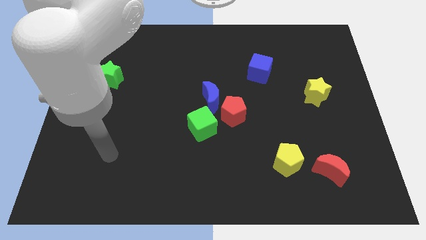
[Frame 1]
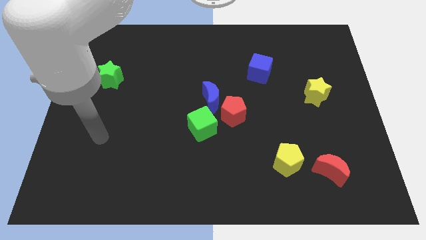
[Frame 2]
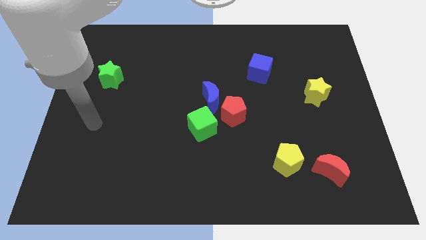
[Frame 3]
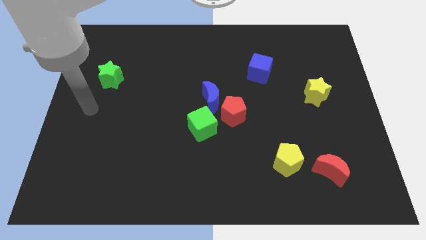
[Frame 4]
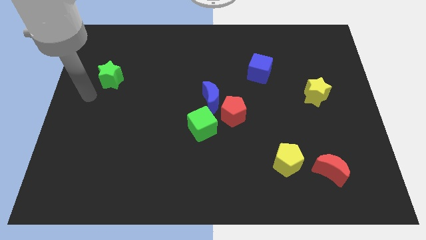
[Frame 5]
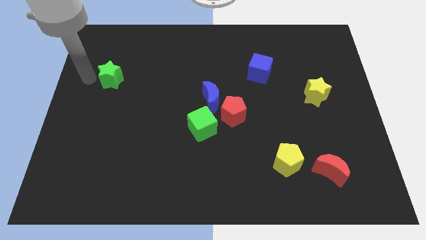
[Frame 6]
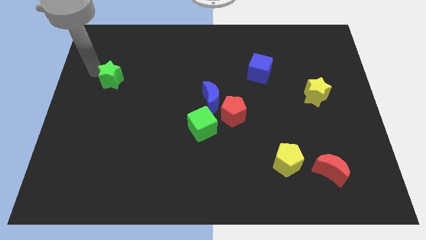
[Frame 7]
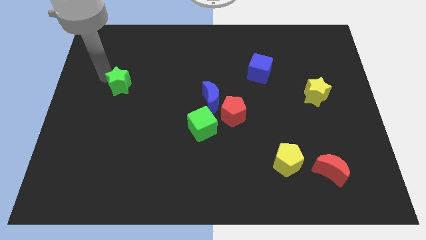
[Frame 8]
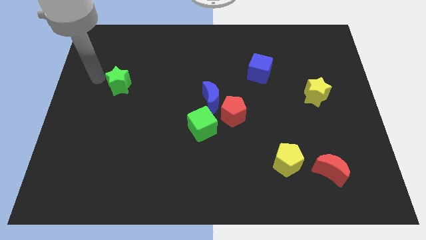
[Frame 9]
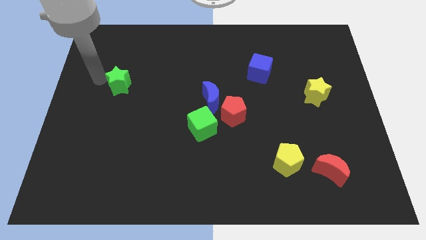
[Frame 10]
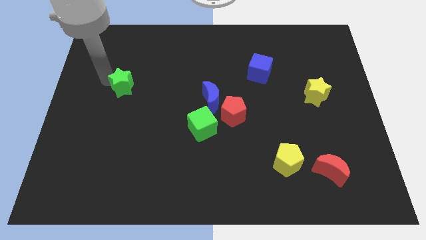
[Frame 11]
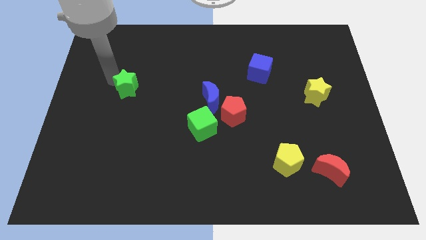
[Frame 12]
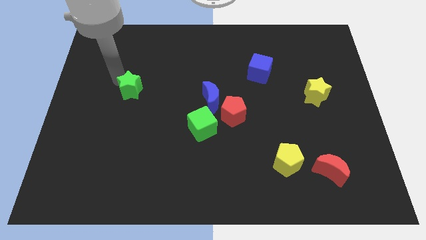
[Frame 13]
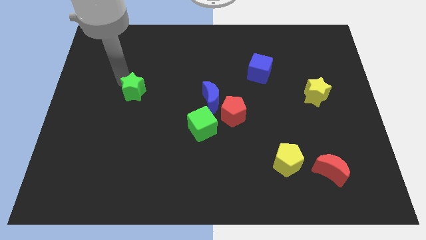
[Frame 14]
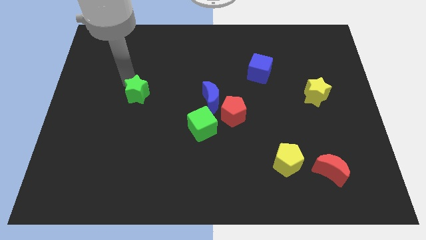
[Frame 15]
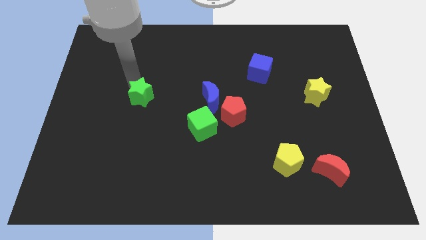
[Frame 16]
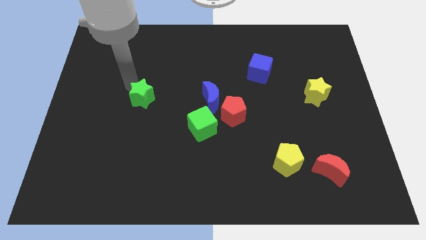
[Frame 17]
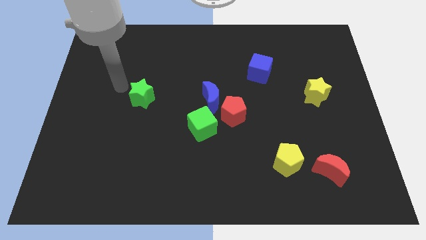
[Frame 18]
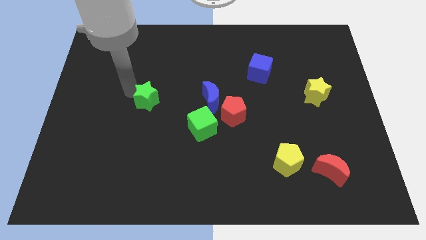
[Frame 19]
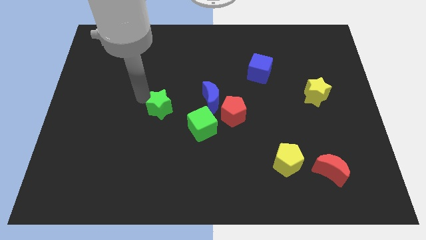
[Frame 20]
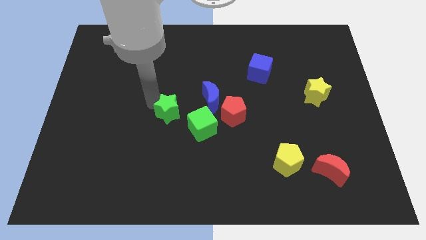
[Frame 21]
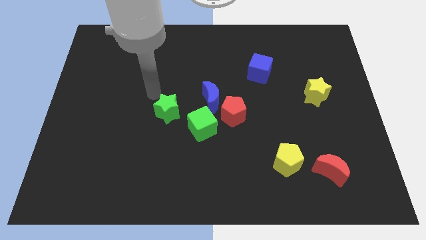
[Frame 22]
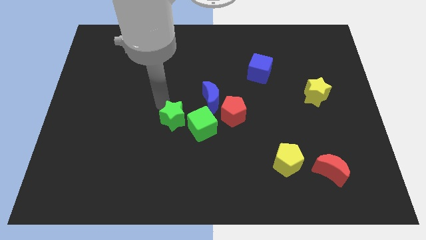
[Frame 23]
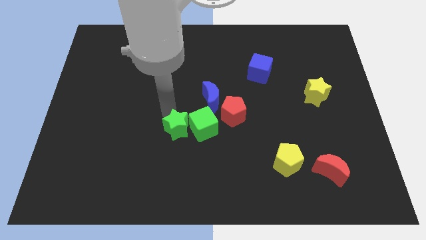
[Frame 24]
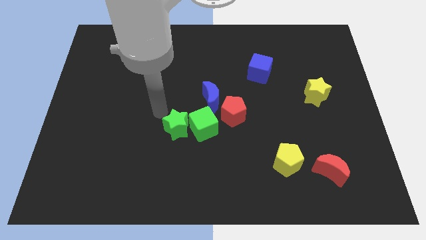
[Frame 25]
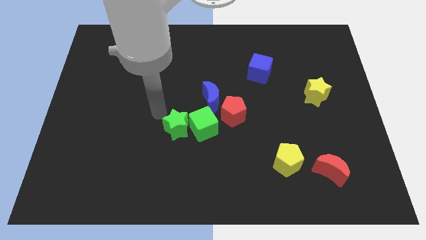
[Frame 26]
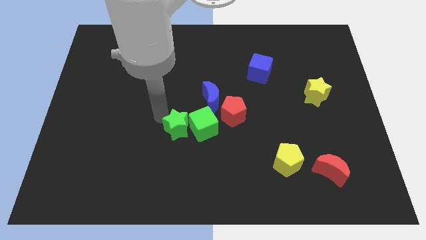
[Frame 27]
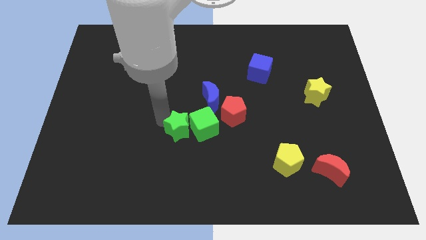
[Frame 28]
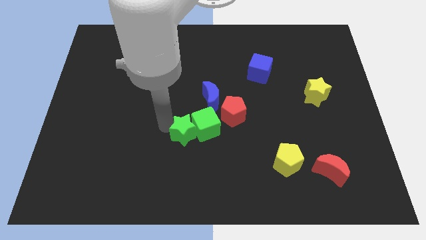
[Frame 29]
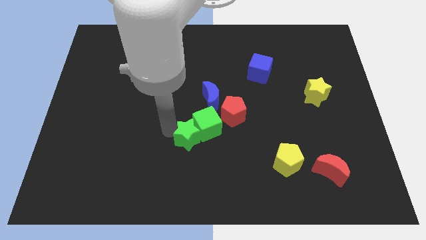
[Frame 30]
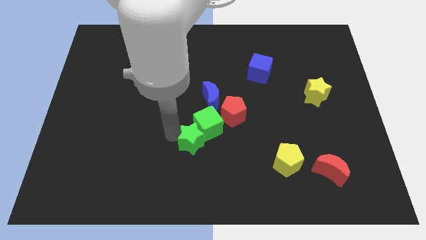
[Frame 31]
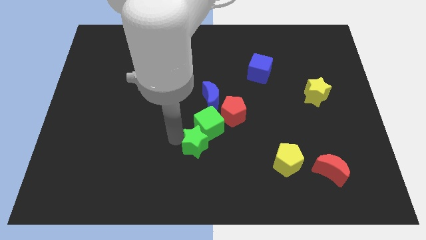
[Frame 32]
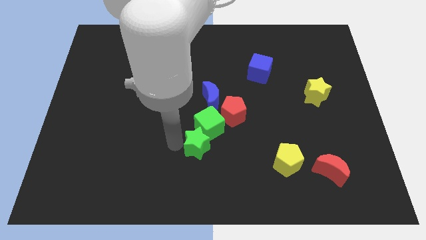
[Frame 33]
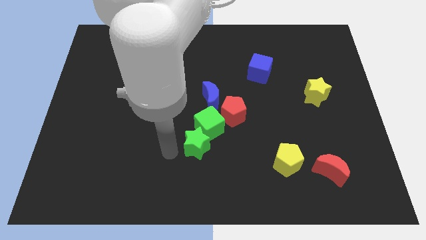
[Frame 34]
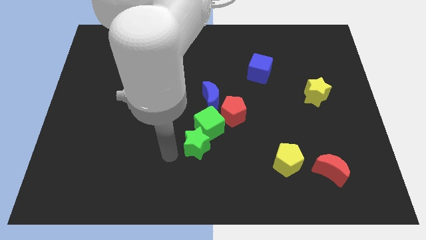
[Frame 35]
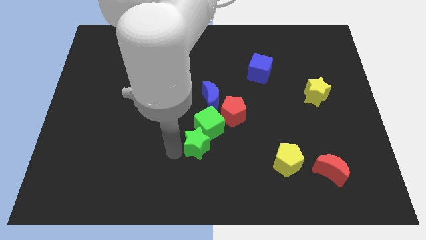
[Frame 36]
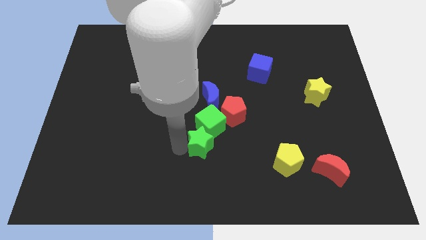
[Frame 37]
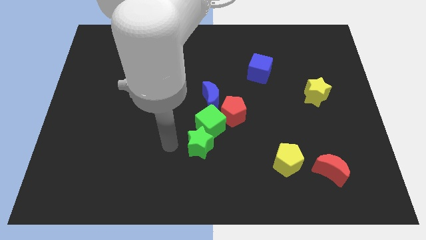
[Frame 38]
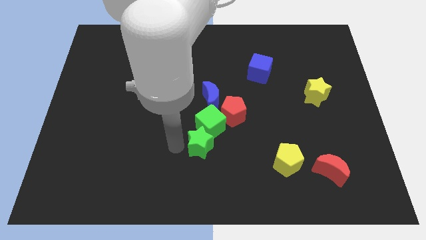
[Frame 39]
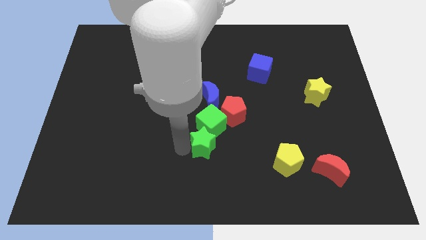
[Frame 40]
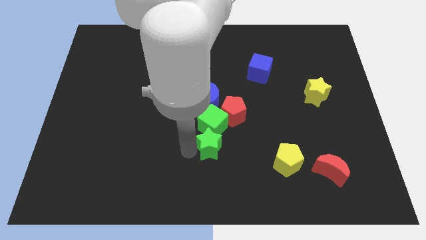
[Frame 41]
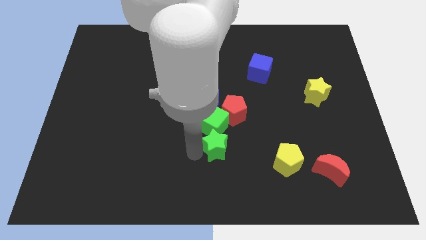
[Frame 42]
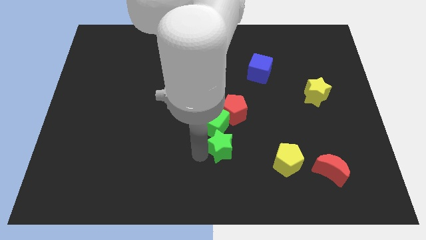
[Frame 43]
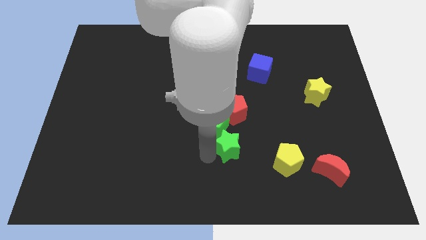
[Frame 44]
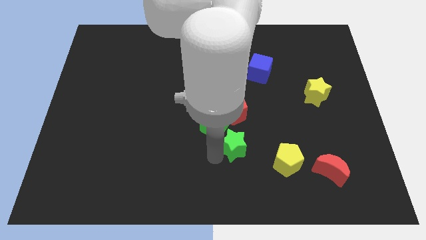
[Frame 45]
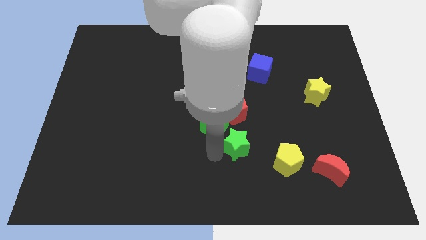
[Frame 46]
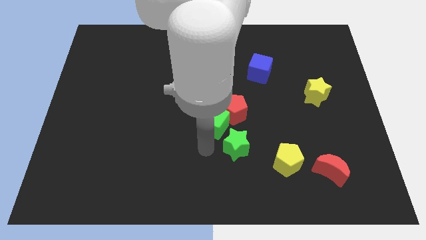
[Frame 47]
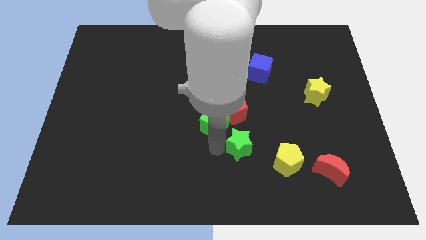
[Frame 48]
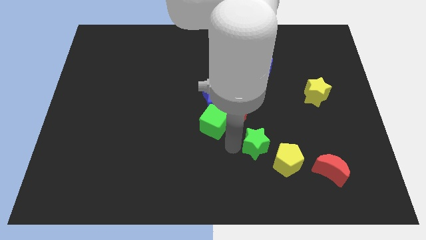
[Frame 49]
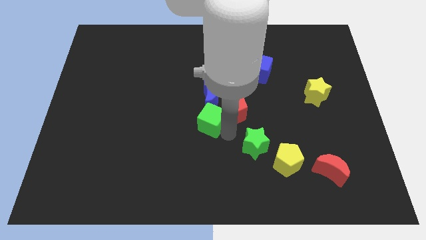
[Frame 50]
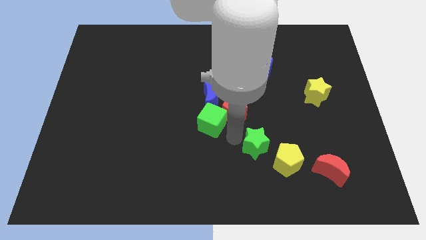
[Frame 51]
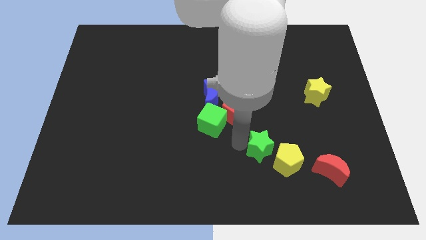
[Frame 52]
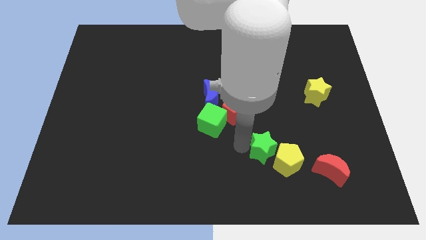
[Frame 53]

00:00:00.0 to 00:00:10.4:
put the green star close to the yellow pentagon

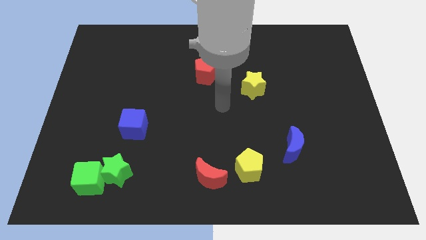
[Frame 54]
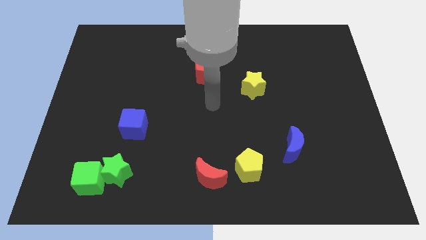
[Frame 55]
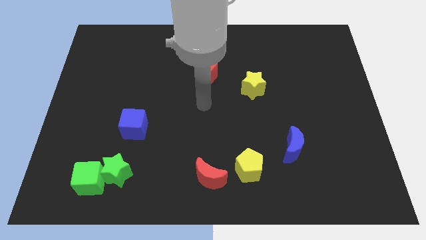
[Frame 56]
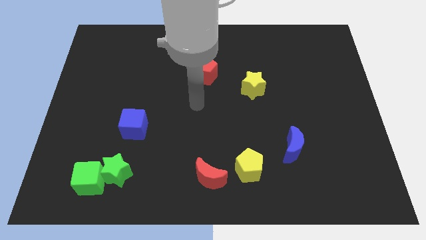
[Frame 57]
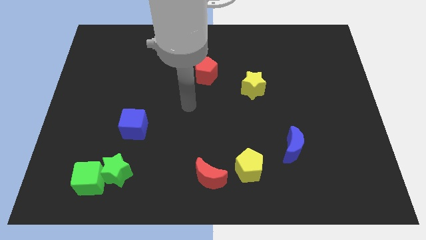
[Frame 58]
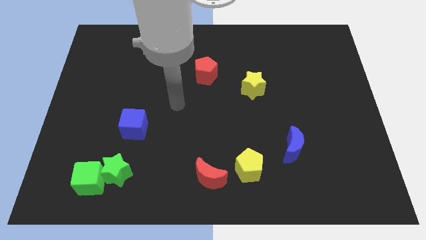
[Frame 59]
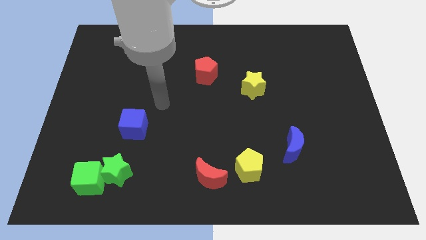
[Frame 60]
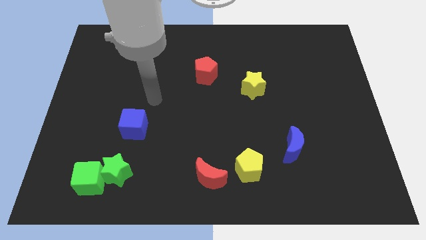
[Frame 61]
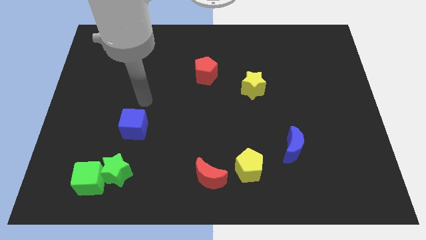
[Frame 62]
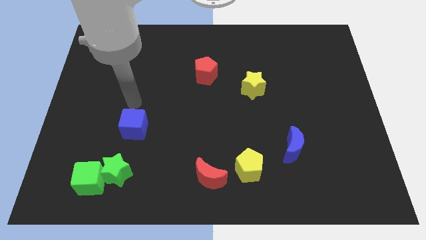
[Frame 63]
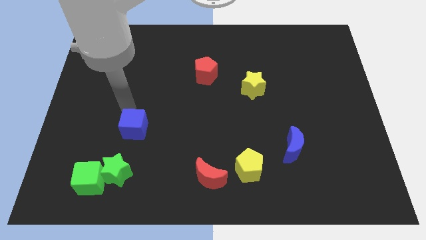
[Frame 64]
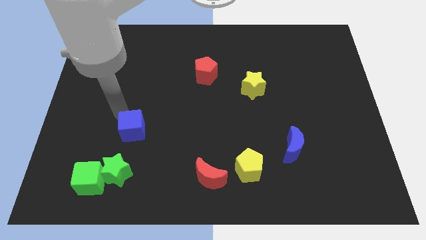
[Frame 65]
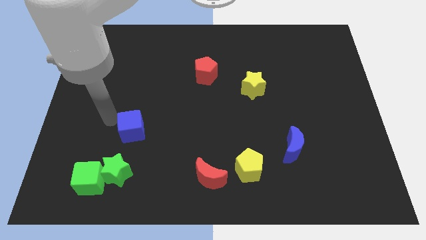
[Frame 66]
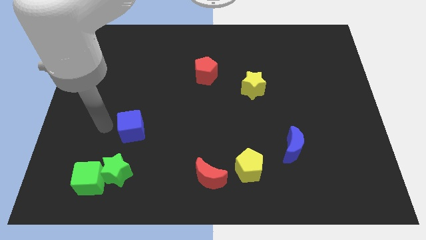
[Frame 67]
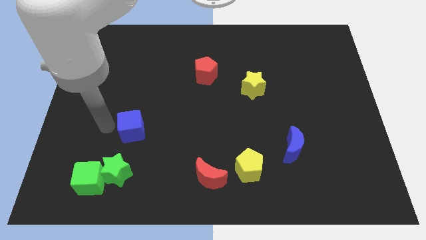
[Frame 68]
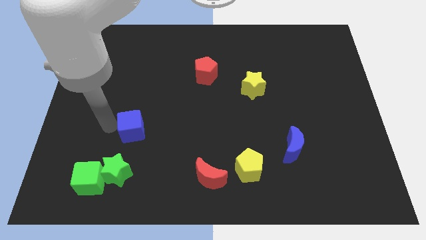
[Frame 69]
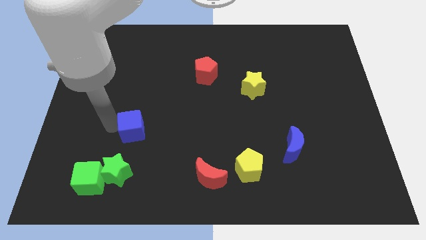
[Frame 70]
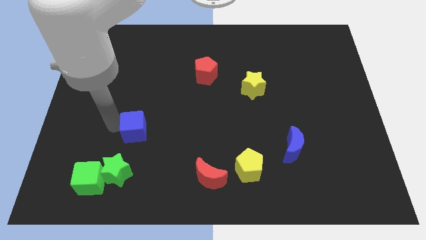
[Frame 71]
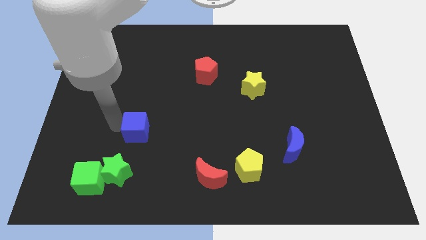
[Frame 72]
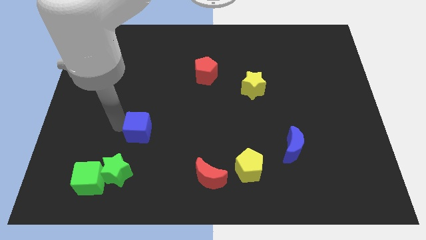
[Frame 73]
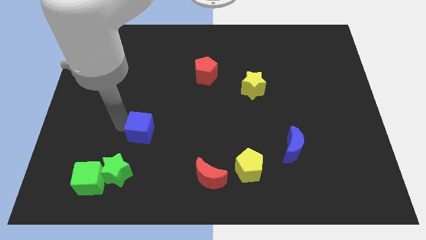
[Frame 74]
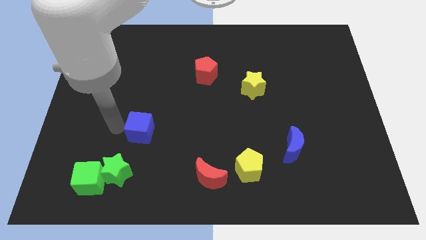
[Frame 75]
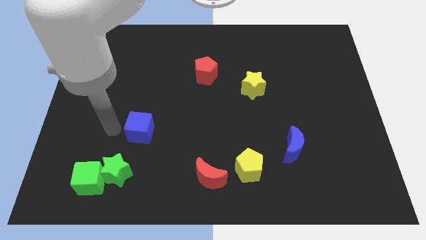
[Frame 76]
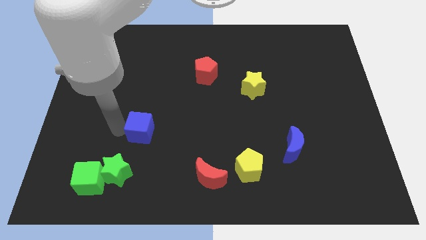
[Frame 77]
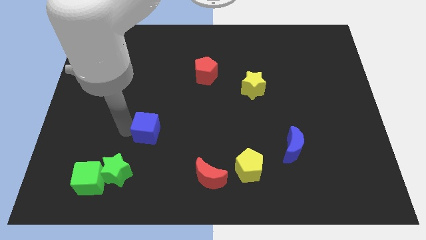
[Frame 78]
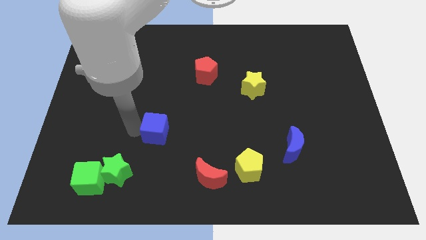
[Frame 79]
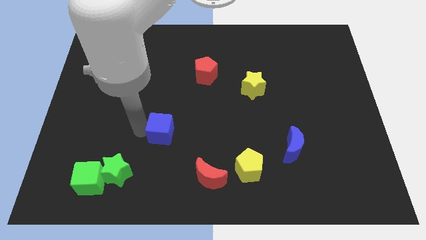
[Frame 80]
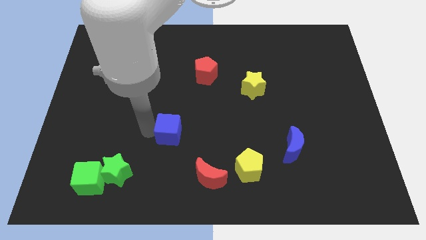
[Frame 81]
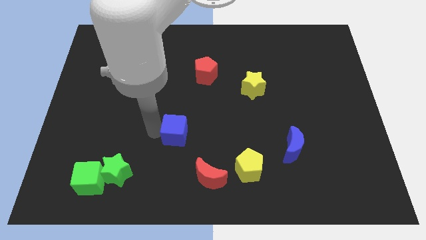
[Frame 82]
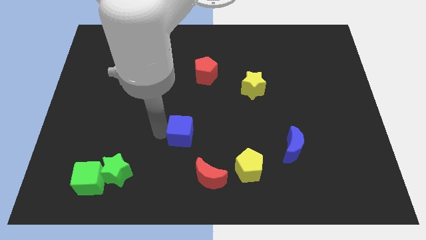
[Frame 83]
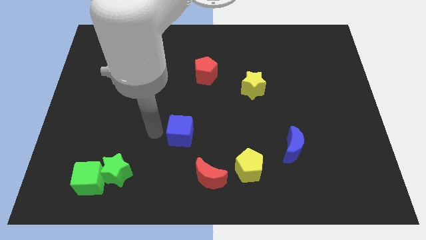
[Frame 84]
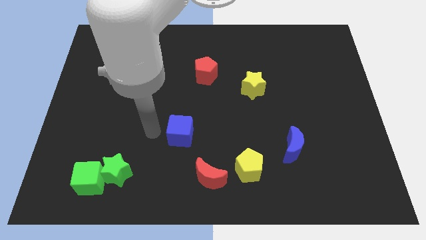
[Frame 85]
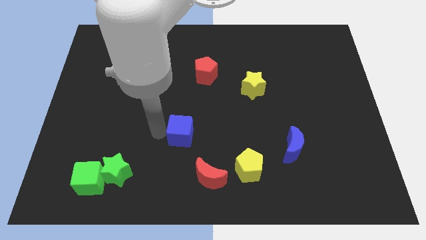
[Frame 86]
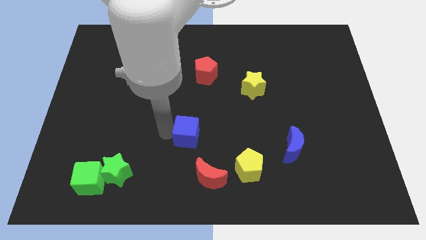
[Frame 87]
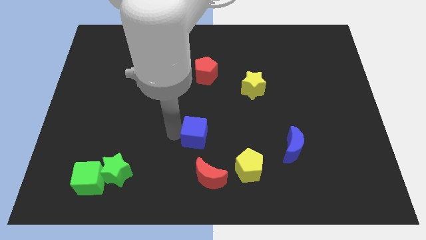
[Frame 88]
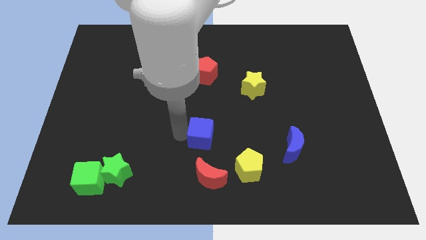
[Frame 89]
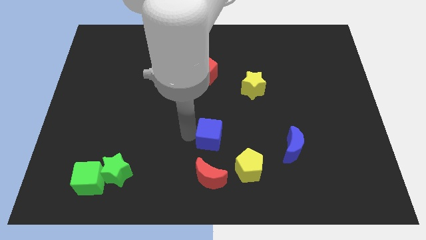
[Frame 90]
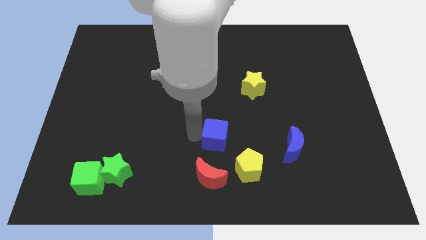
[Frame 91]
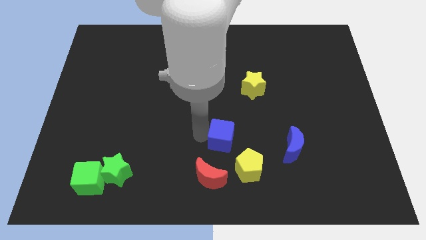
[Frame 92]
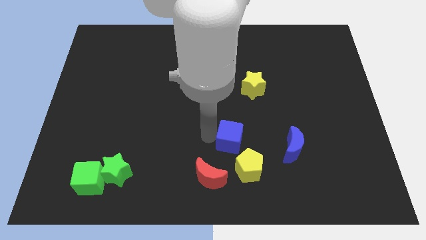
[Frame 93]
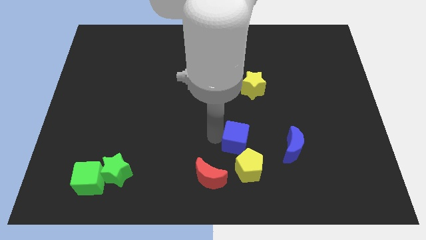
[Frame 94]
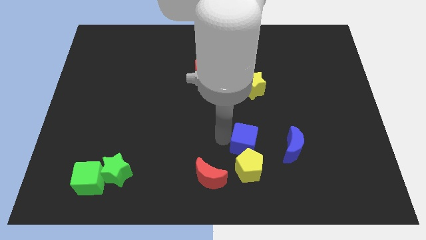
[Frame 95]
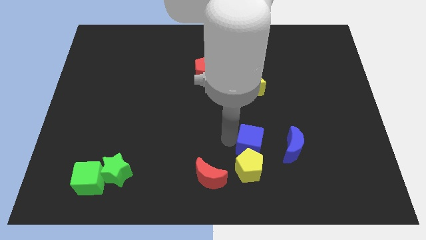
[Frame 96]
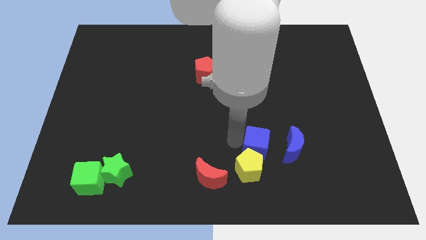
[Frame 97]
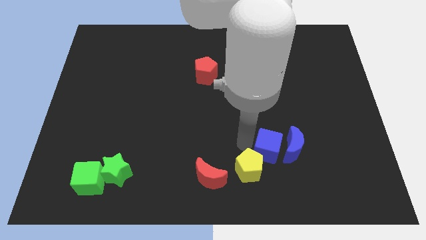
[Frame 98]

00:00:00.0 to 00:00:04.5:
put the blue cube towards the blue moon
